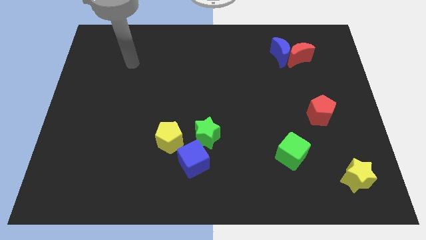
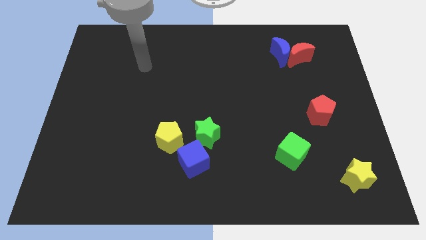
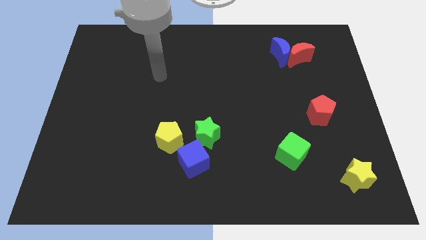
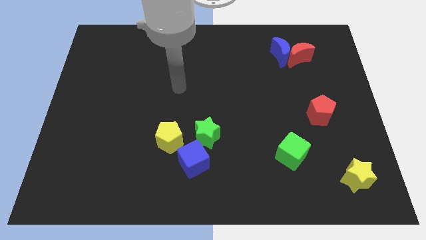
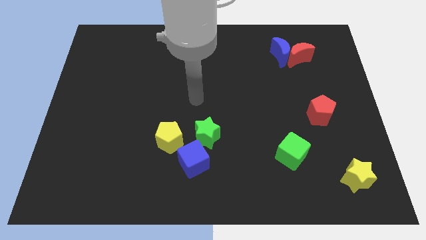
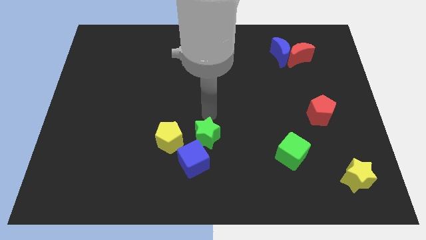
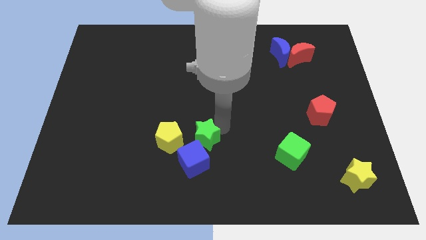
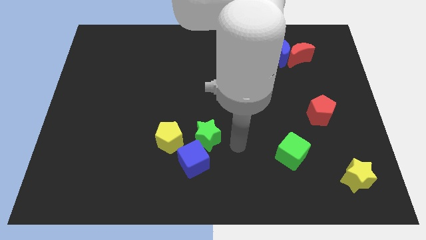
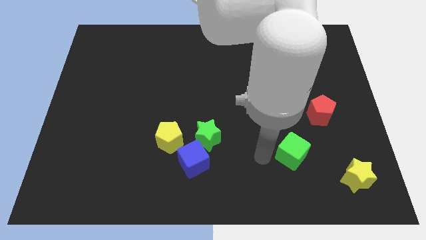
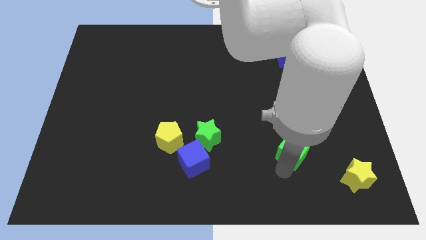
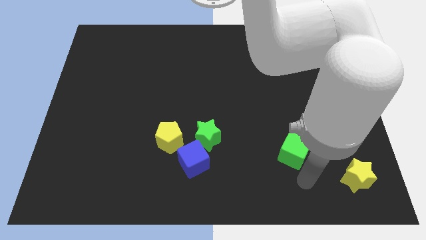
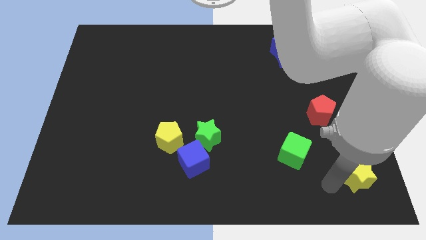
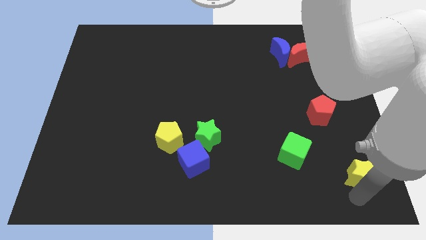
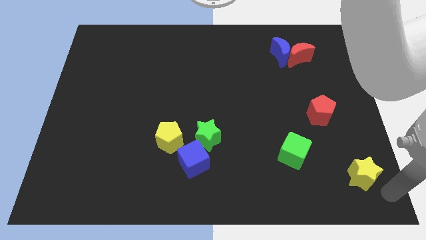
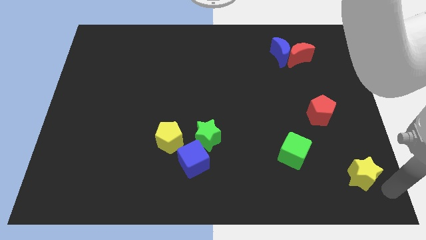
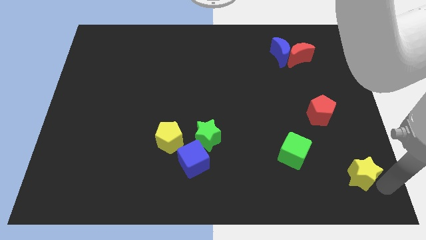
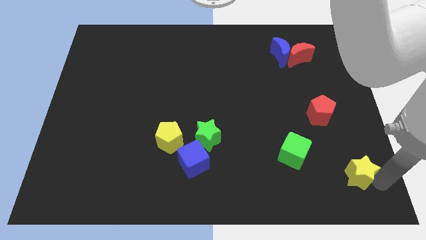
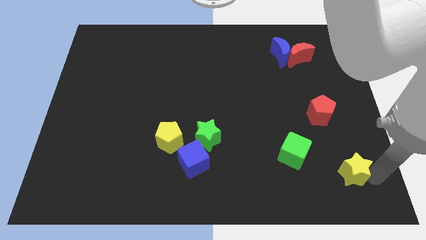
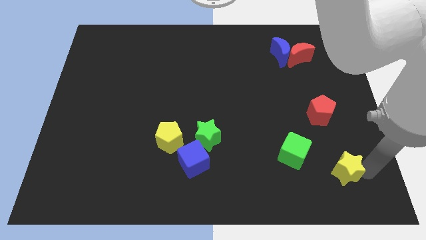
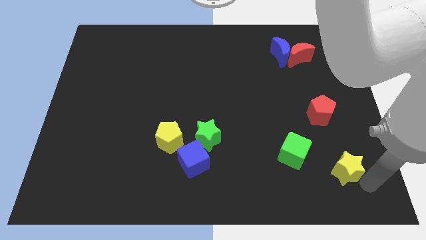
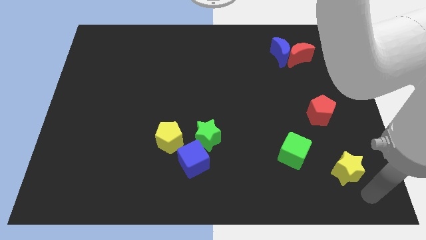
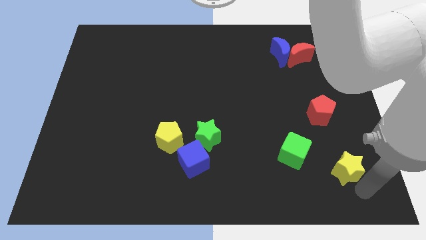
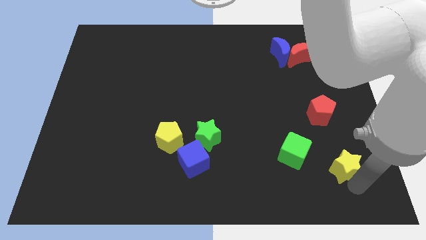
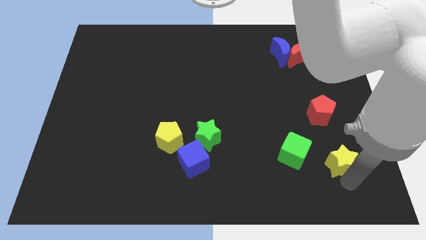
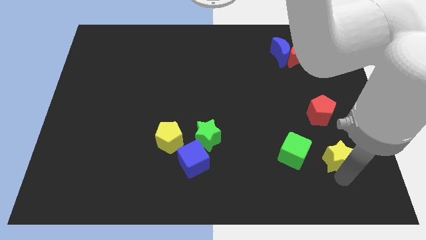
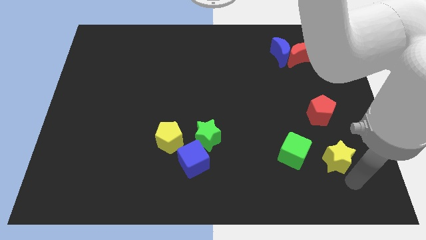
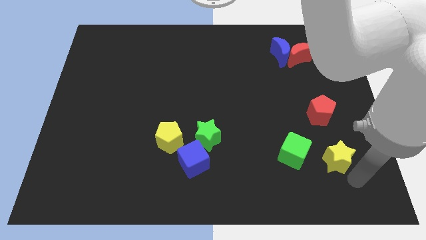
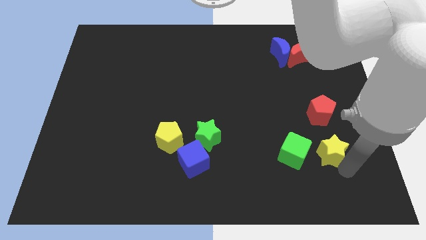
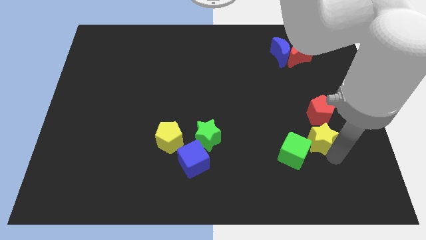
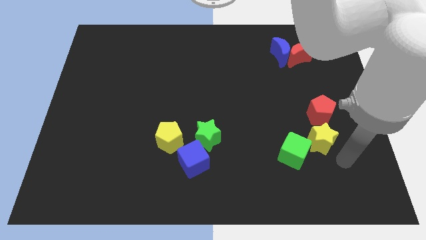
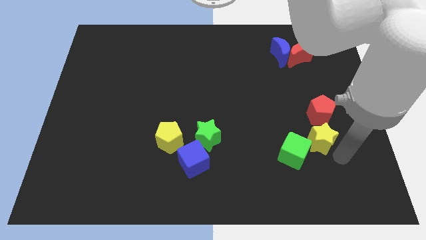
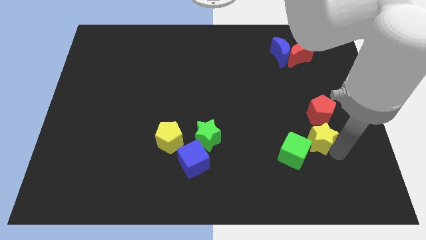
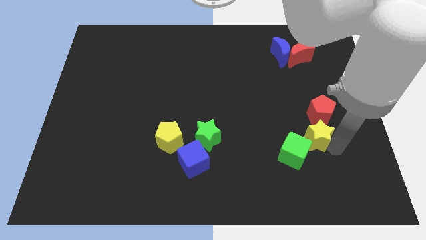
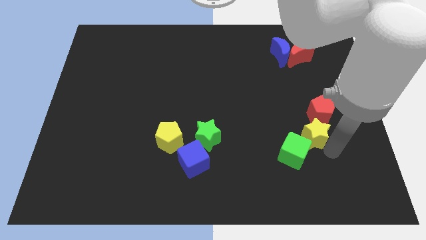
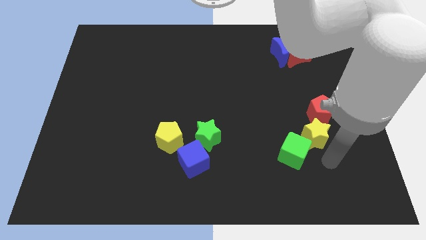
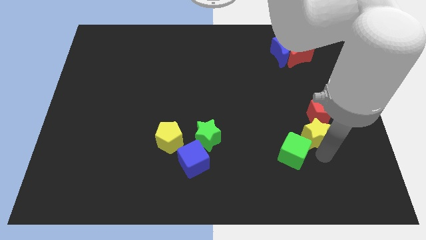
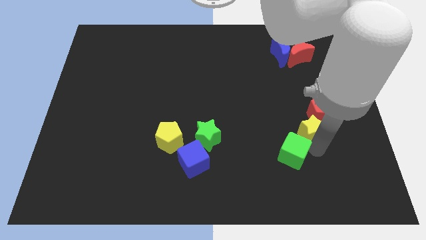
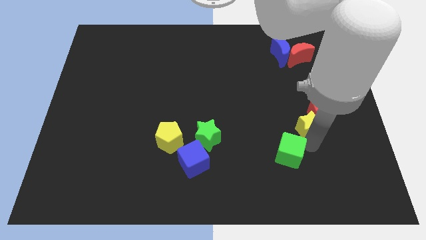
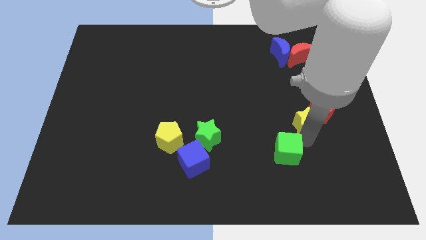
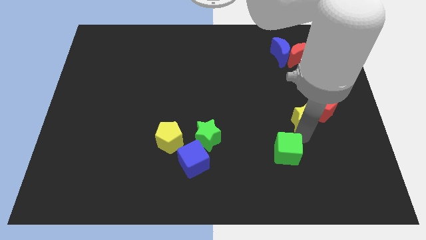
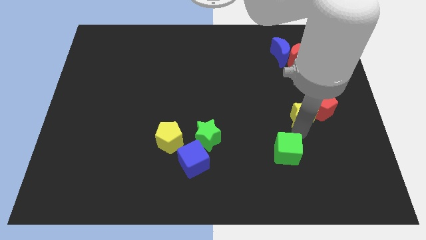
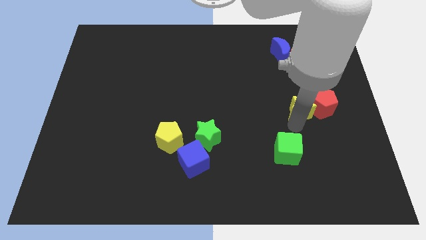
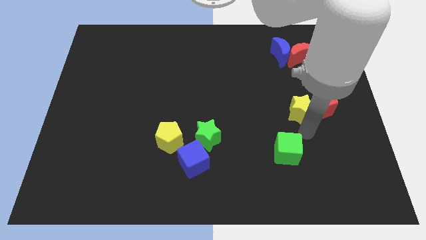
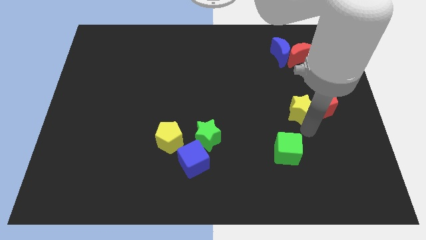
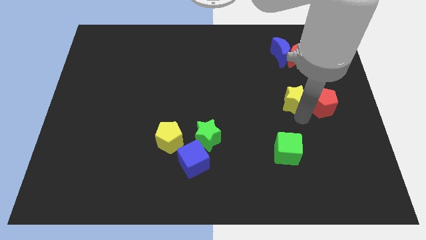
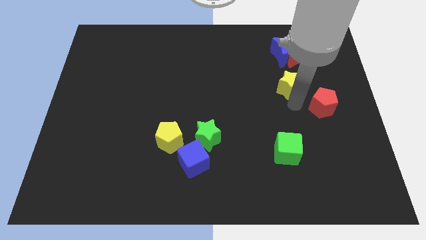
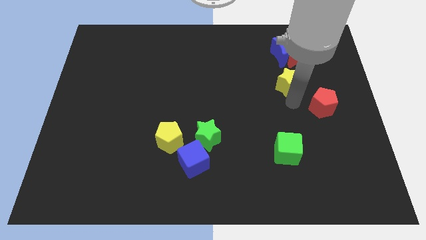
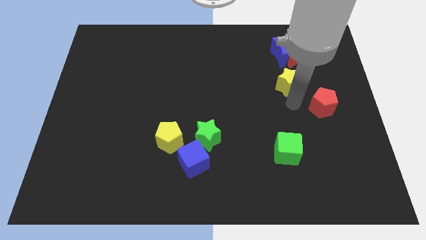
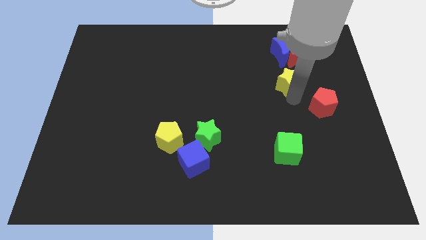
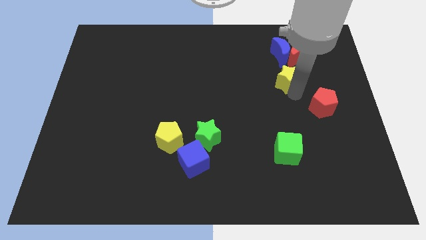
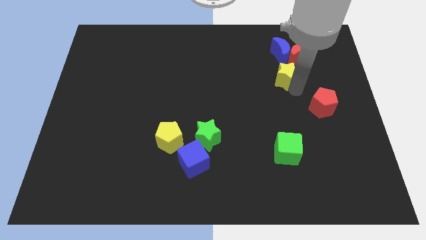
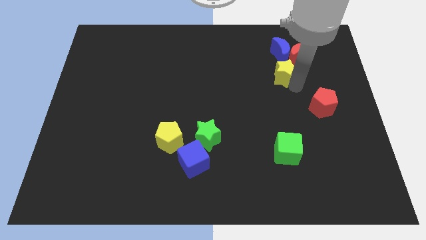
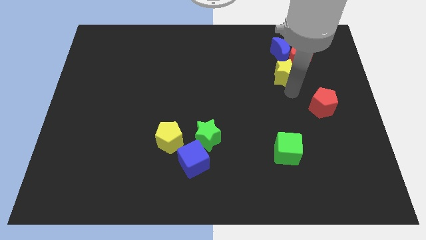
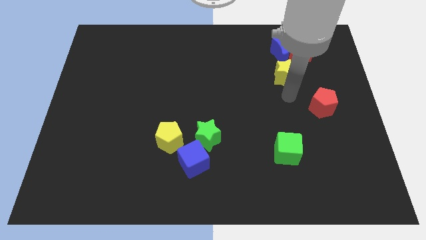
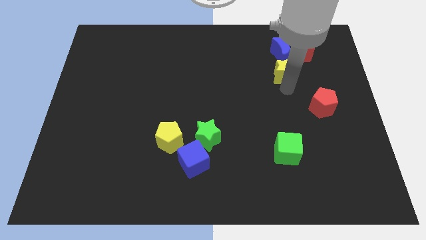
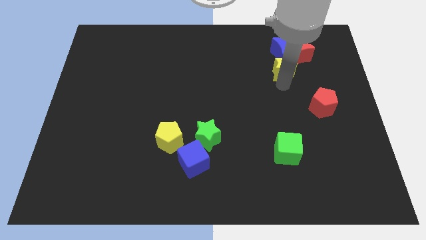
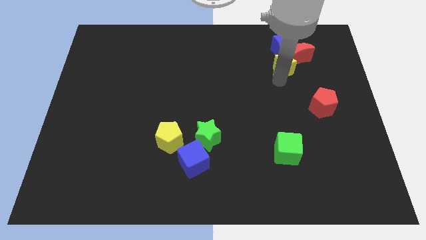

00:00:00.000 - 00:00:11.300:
slide the yellow star close to the blue moon

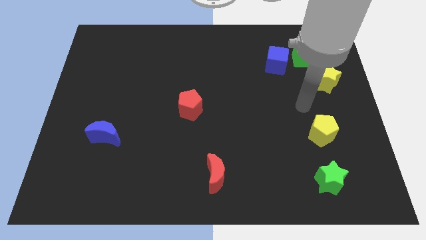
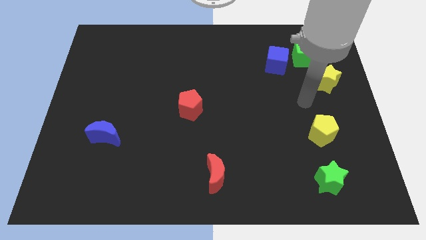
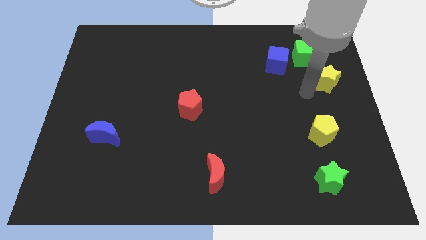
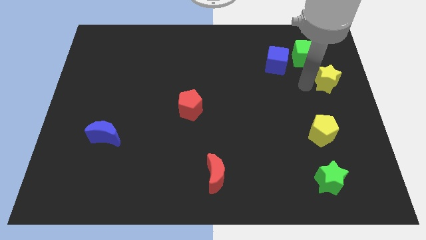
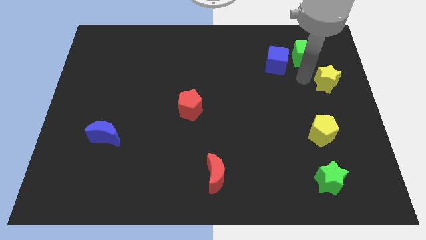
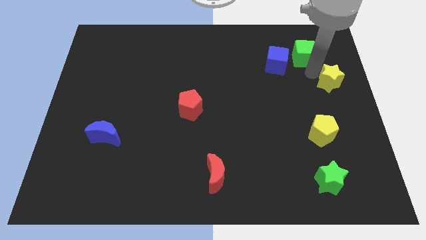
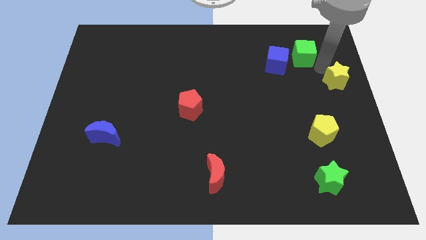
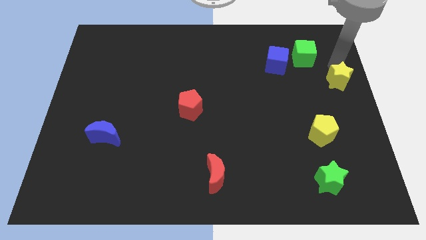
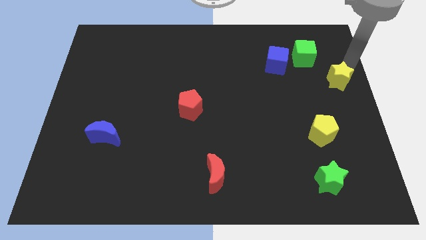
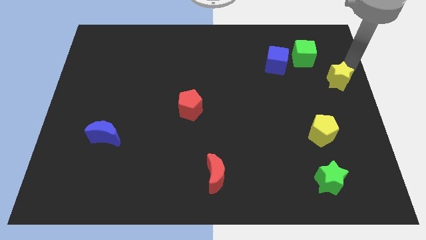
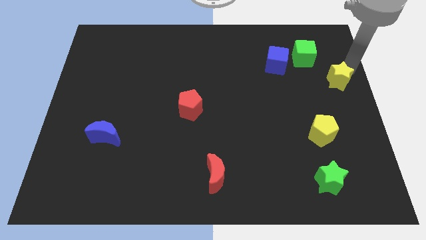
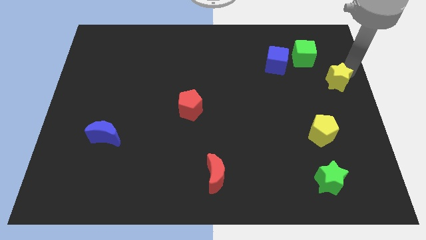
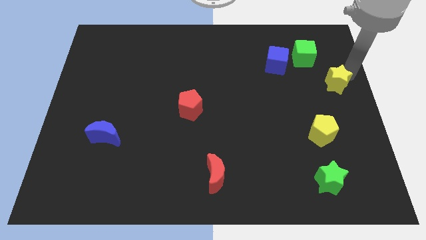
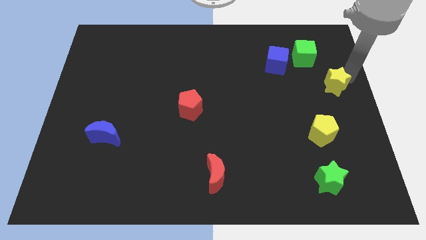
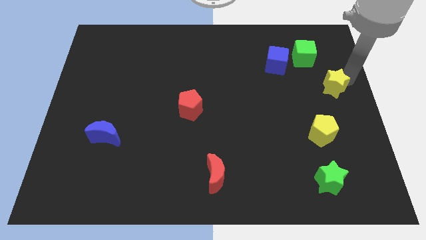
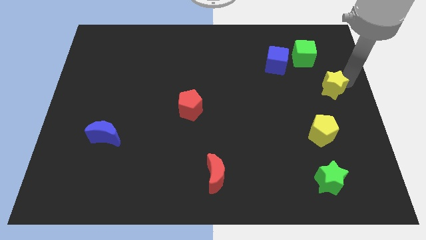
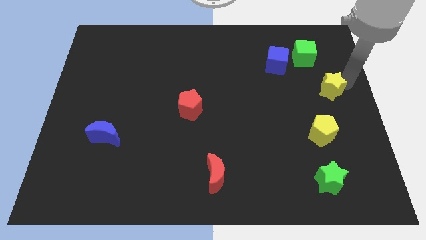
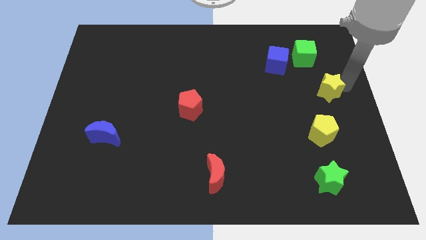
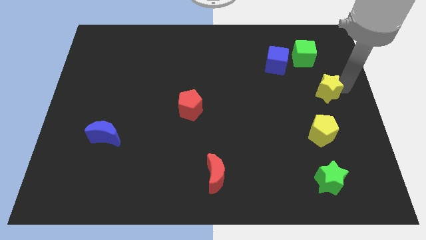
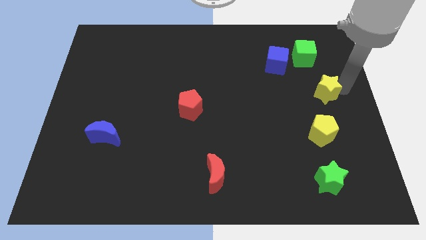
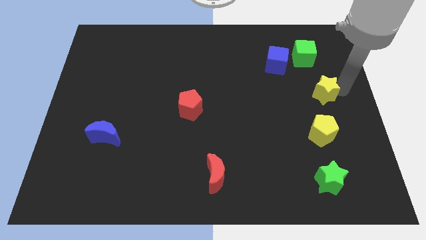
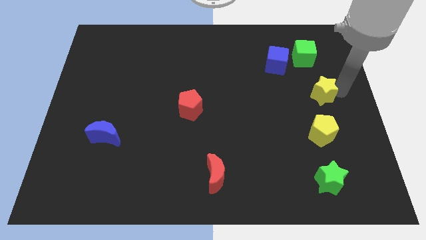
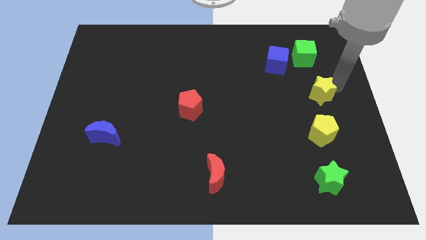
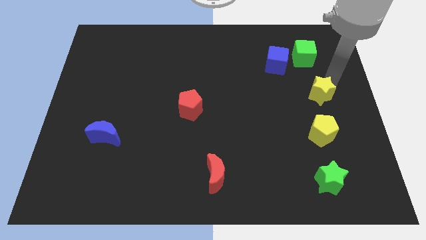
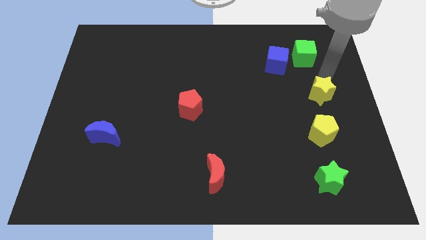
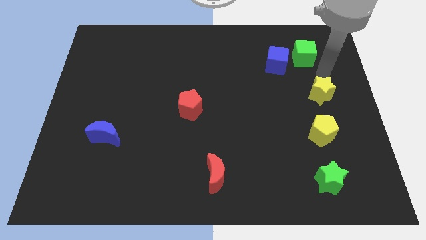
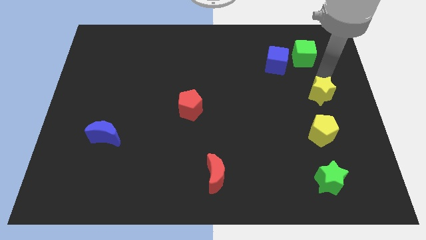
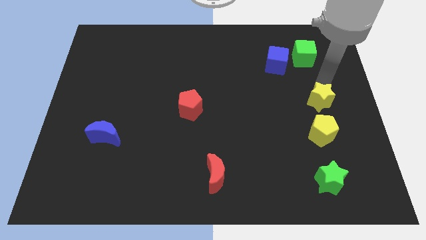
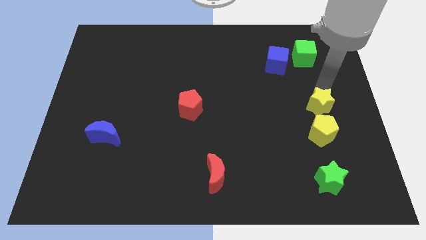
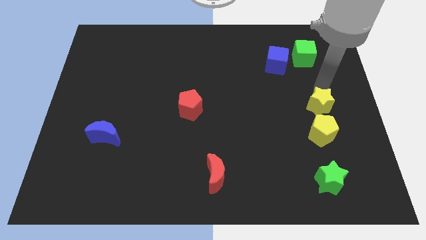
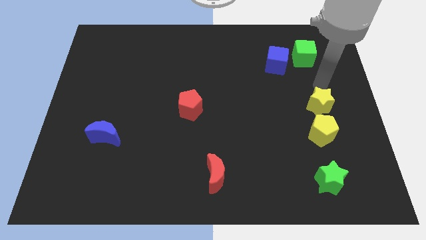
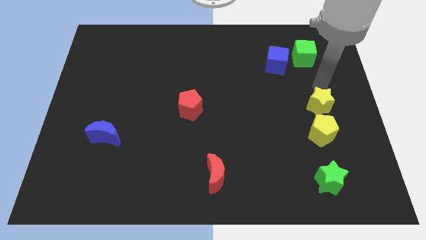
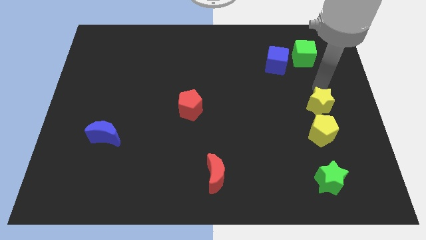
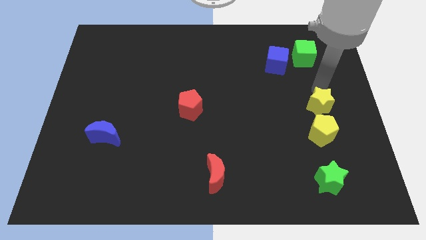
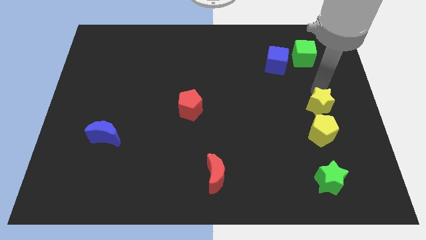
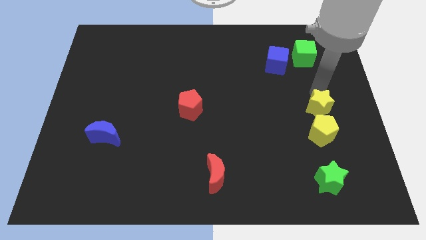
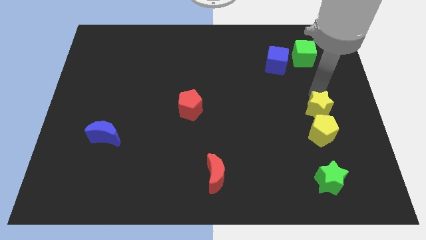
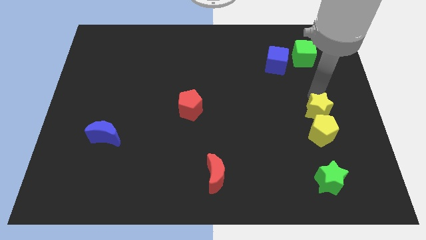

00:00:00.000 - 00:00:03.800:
push the yellow star close to the yellow pentagon
